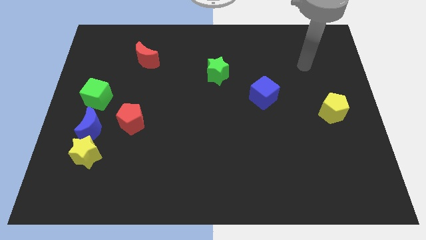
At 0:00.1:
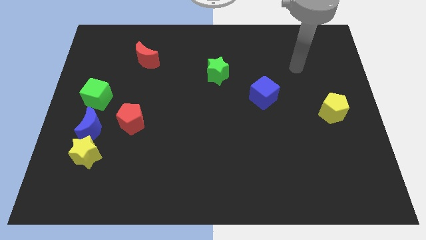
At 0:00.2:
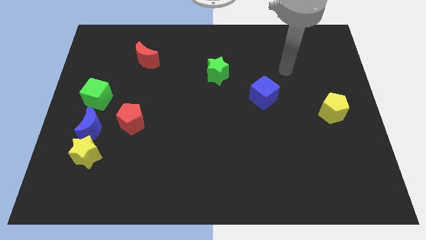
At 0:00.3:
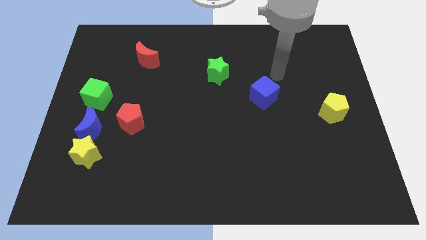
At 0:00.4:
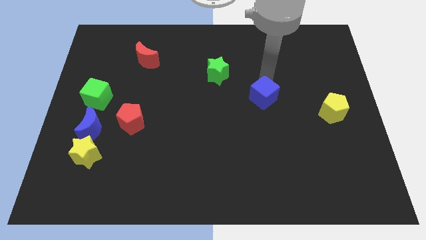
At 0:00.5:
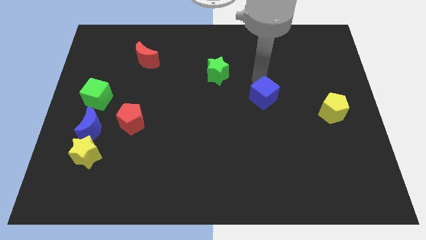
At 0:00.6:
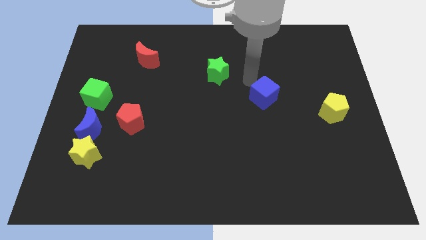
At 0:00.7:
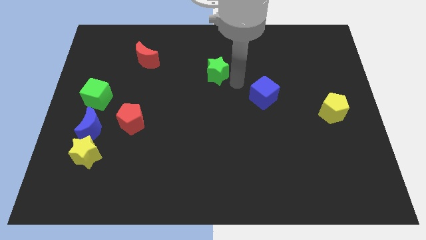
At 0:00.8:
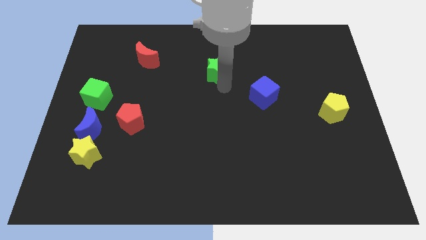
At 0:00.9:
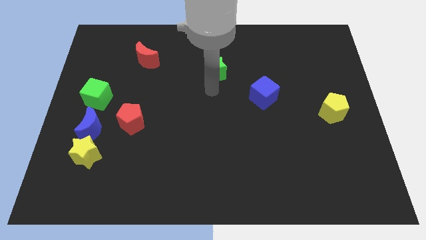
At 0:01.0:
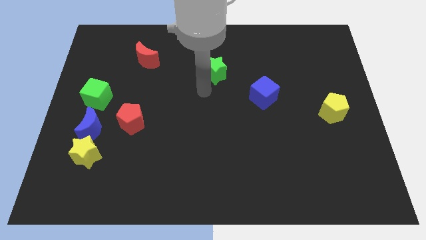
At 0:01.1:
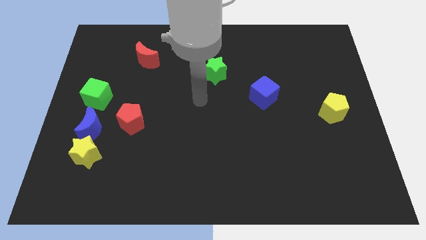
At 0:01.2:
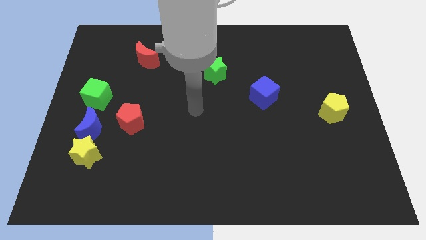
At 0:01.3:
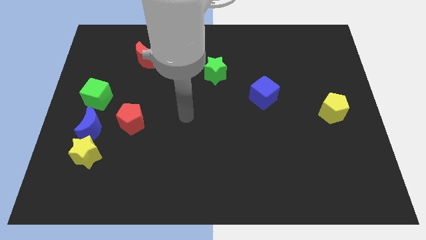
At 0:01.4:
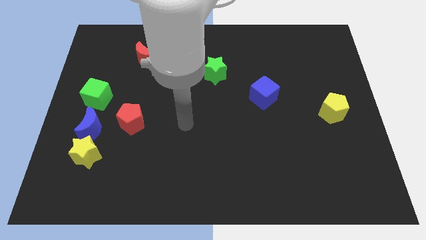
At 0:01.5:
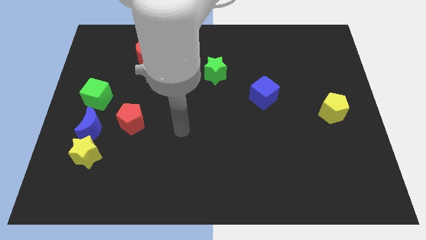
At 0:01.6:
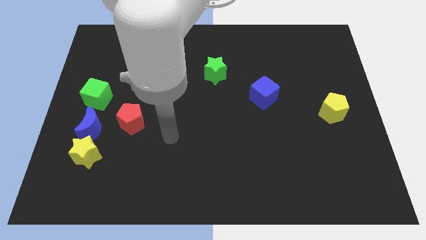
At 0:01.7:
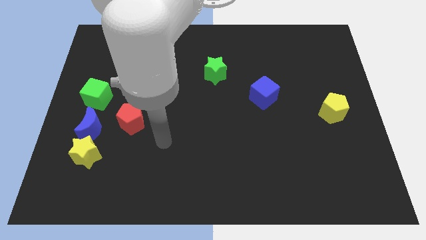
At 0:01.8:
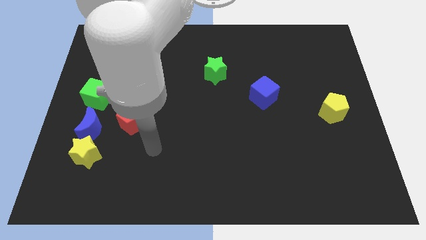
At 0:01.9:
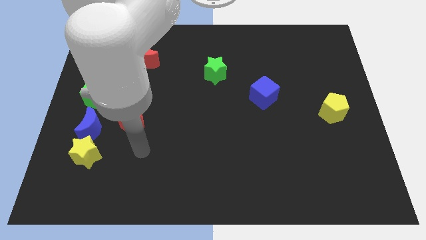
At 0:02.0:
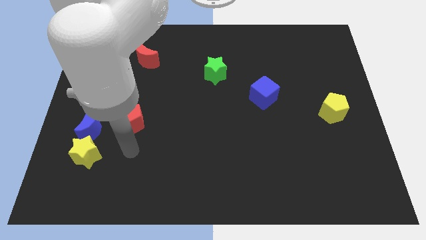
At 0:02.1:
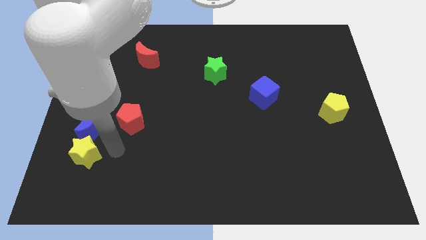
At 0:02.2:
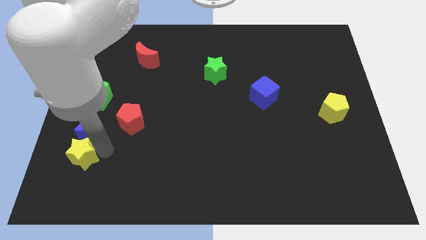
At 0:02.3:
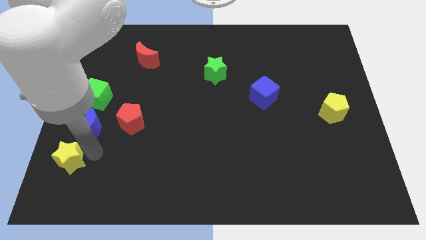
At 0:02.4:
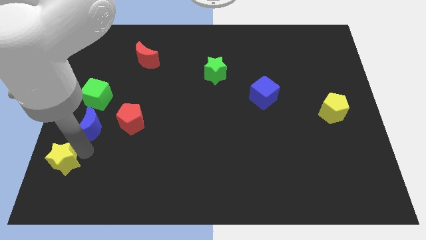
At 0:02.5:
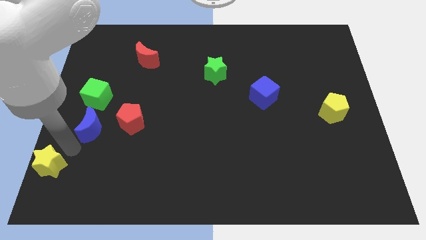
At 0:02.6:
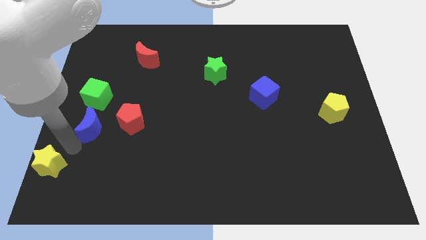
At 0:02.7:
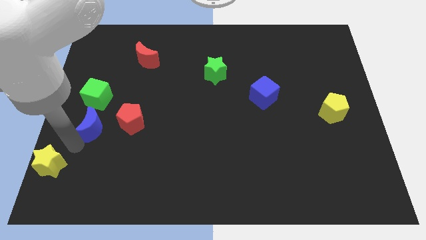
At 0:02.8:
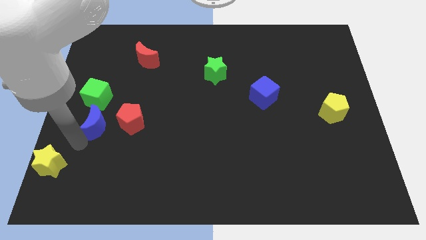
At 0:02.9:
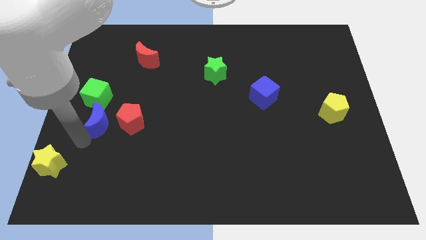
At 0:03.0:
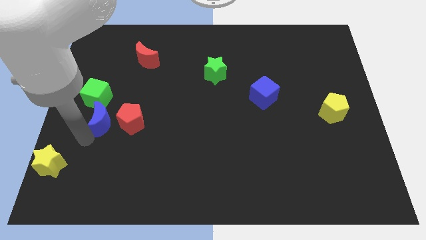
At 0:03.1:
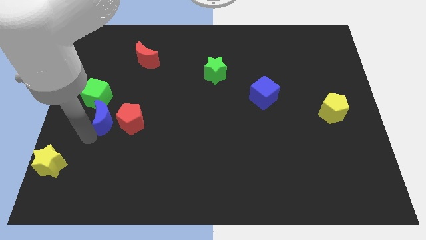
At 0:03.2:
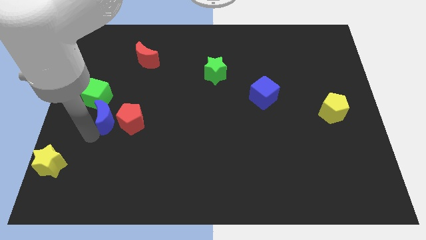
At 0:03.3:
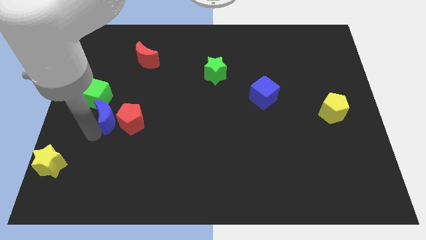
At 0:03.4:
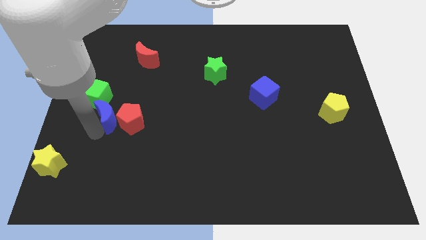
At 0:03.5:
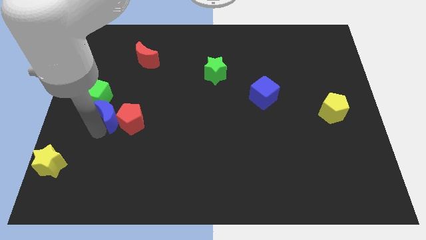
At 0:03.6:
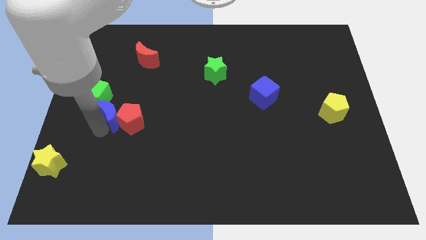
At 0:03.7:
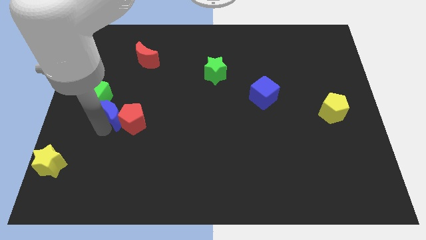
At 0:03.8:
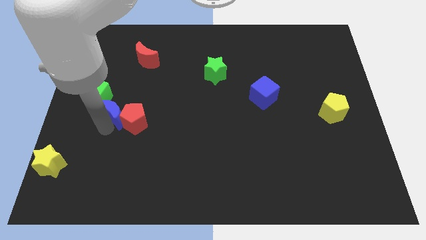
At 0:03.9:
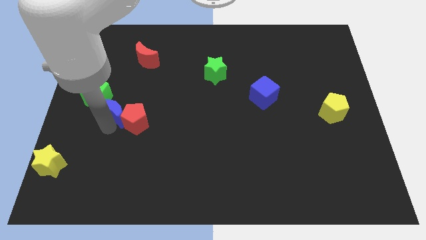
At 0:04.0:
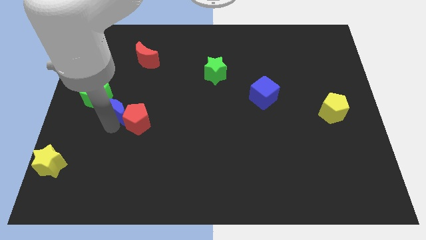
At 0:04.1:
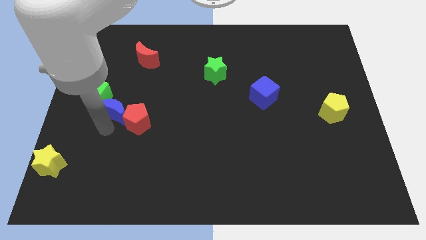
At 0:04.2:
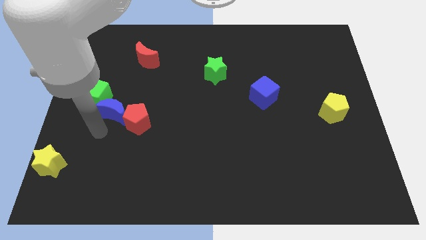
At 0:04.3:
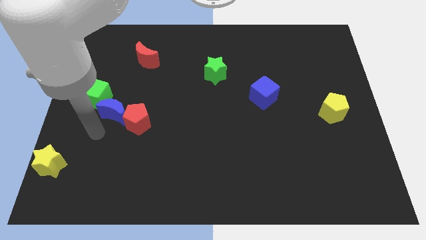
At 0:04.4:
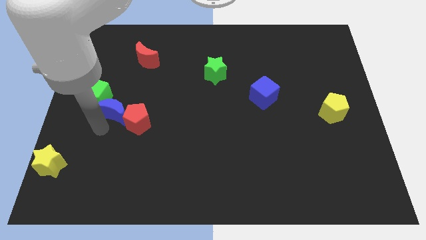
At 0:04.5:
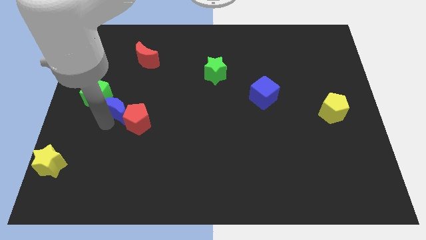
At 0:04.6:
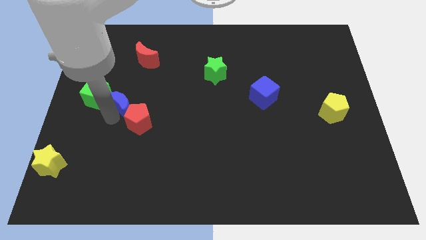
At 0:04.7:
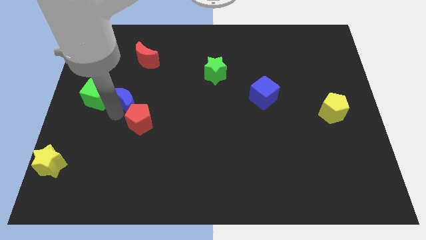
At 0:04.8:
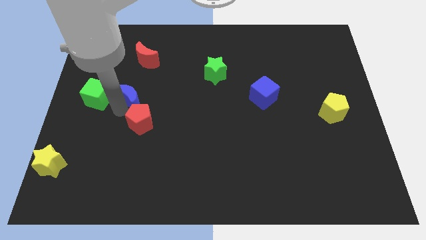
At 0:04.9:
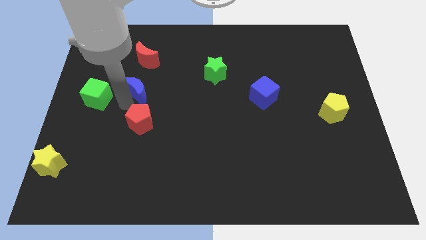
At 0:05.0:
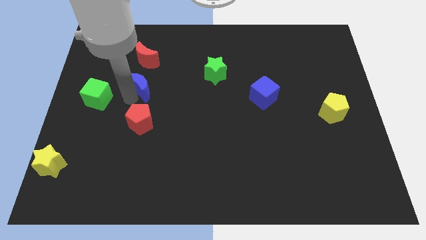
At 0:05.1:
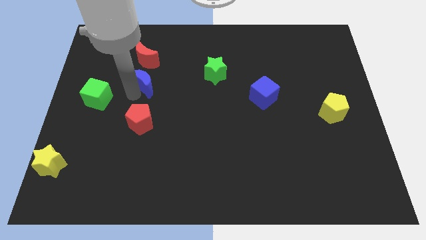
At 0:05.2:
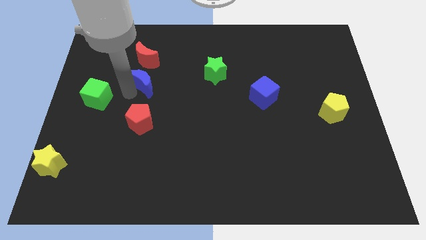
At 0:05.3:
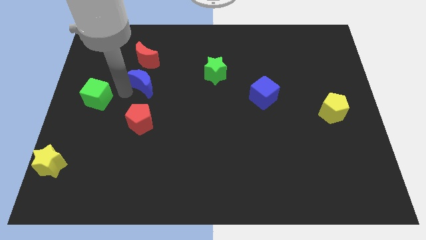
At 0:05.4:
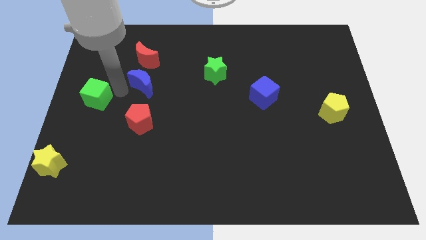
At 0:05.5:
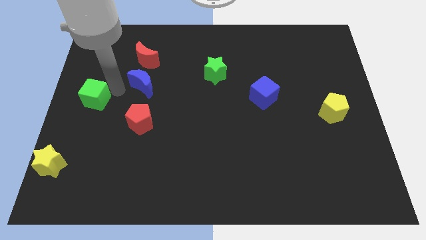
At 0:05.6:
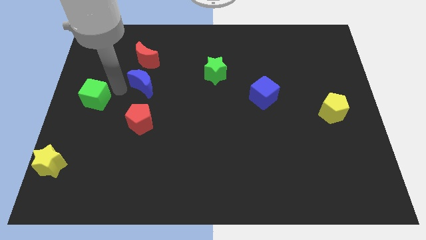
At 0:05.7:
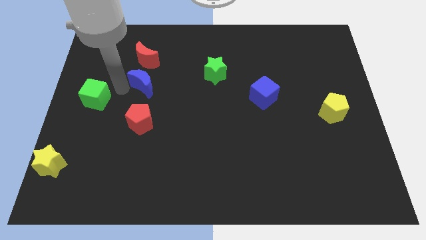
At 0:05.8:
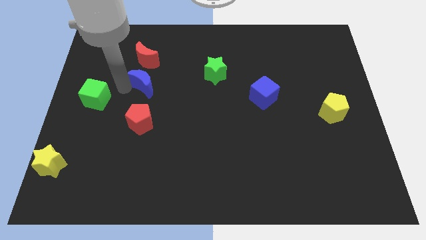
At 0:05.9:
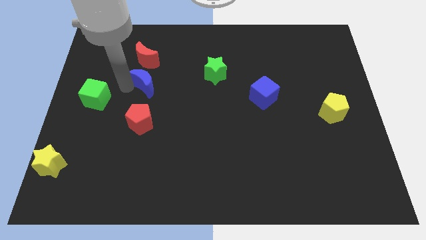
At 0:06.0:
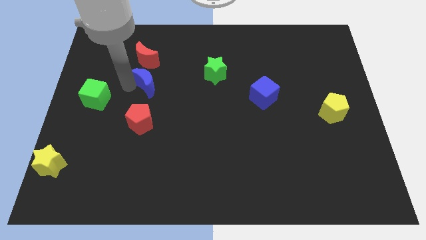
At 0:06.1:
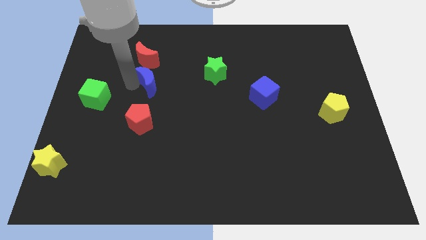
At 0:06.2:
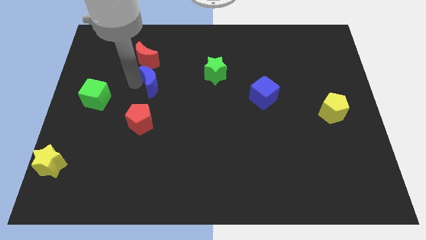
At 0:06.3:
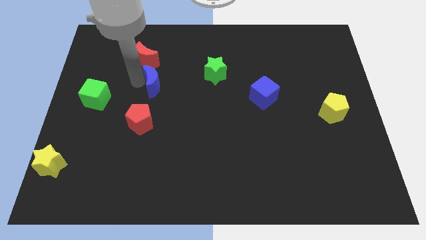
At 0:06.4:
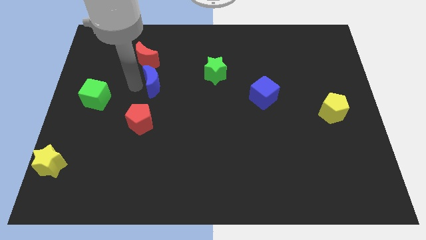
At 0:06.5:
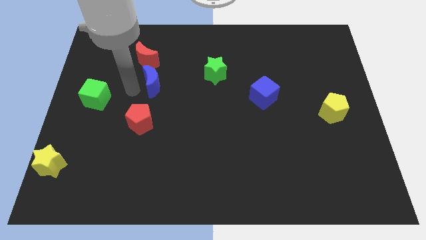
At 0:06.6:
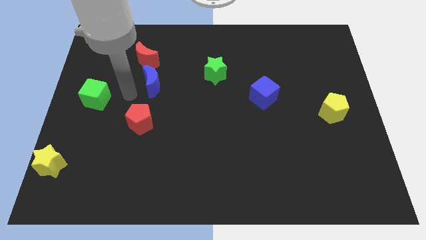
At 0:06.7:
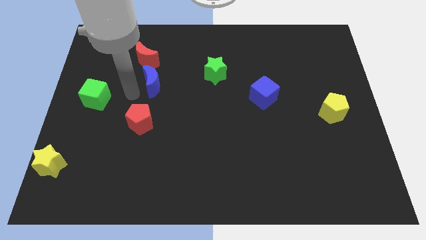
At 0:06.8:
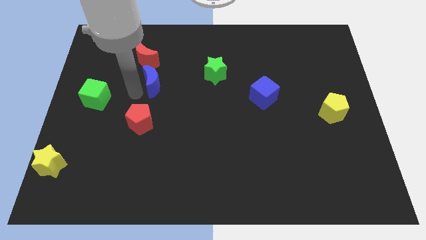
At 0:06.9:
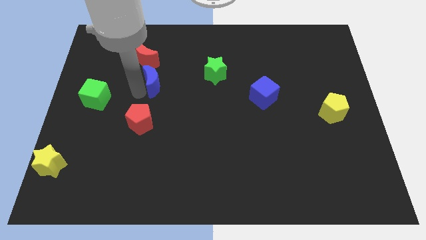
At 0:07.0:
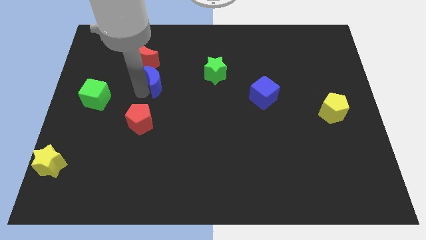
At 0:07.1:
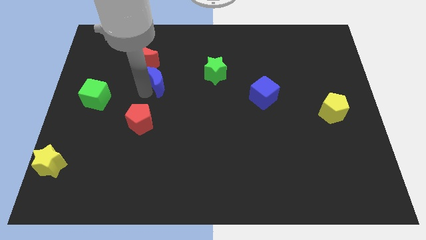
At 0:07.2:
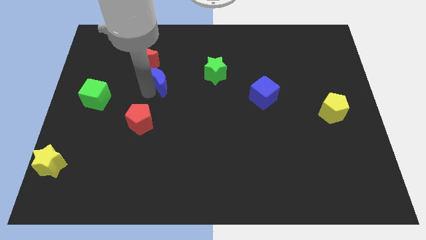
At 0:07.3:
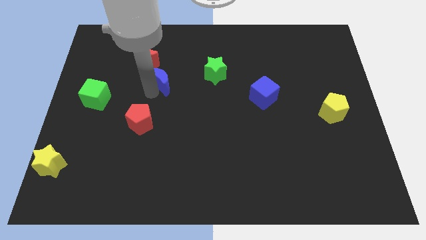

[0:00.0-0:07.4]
move the blue moon upwards and to the right
